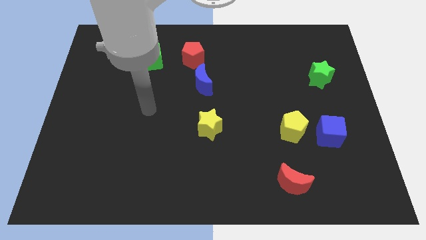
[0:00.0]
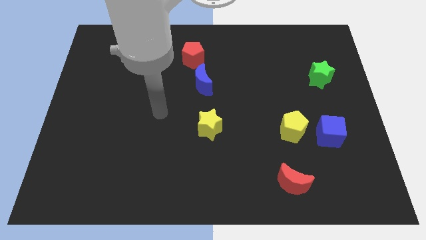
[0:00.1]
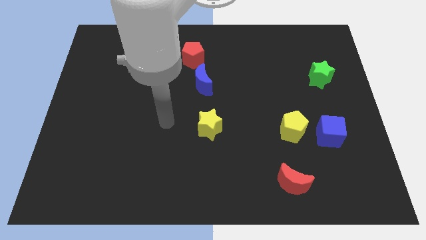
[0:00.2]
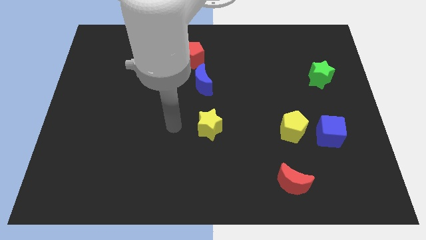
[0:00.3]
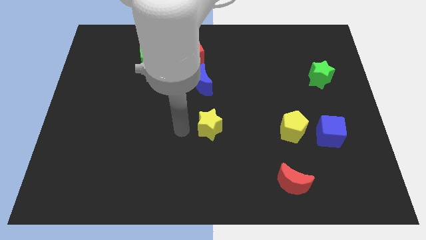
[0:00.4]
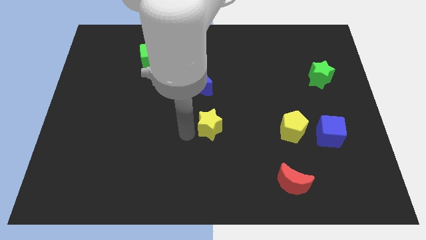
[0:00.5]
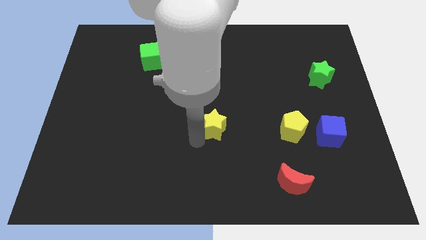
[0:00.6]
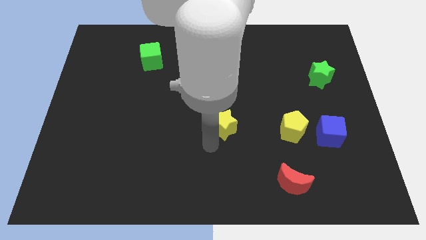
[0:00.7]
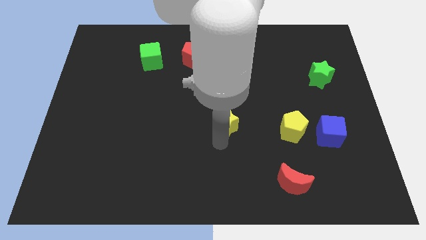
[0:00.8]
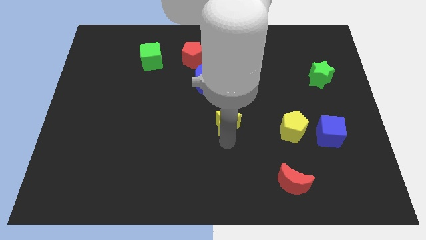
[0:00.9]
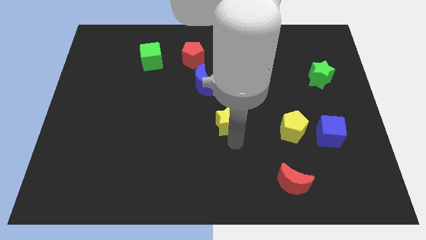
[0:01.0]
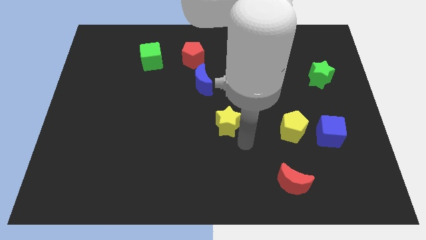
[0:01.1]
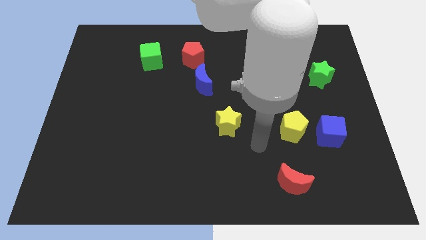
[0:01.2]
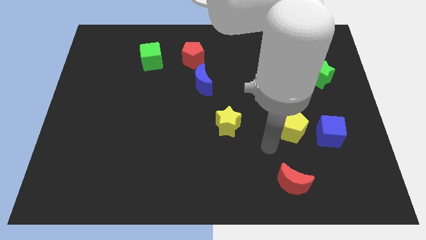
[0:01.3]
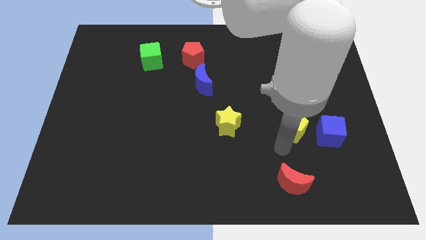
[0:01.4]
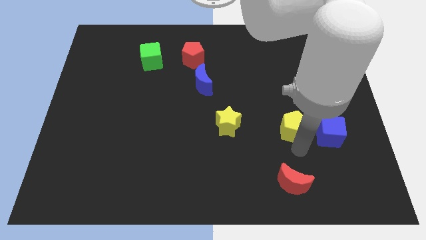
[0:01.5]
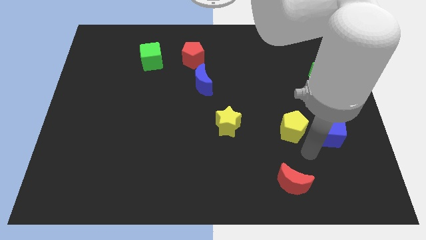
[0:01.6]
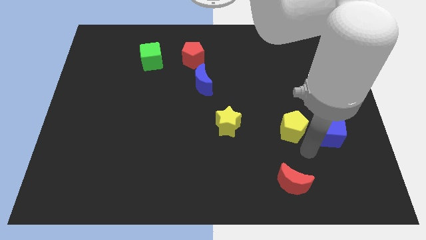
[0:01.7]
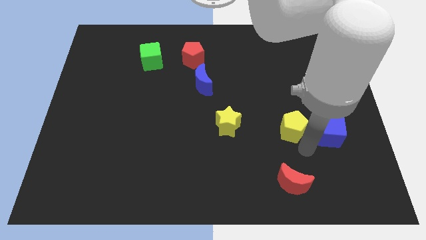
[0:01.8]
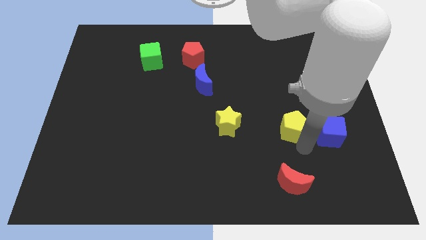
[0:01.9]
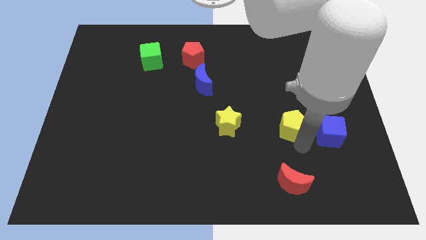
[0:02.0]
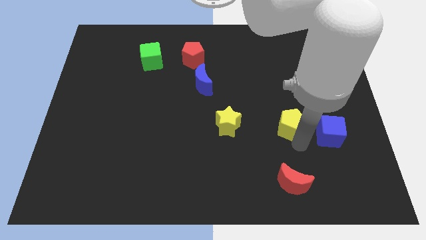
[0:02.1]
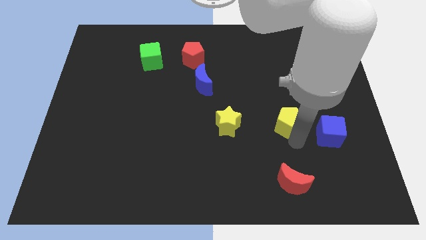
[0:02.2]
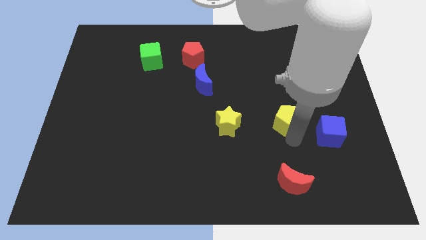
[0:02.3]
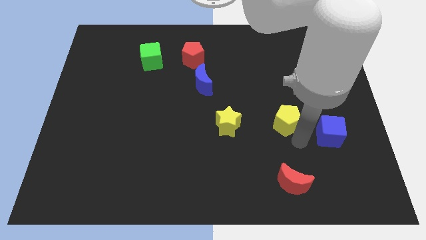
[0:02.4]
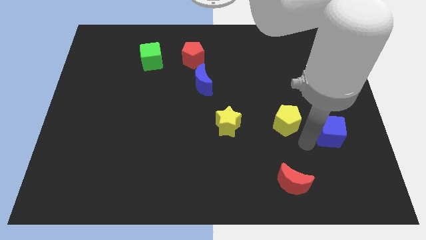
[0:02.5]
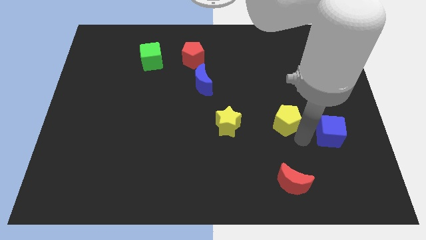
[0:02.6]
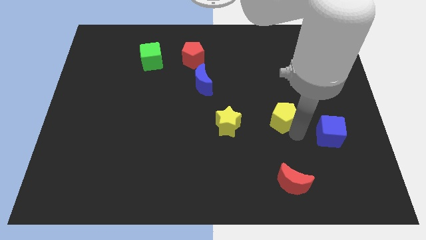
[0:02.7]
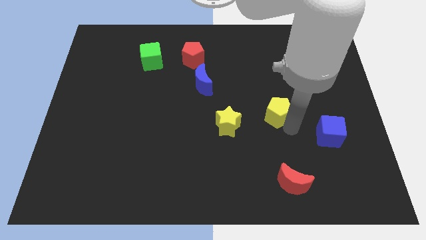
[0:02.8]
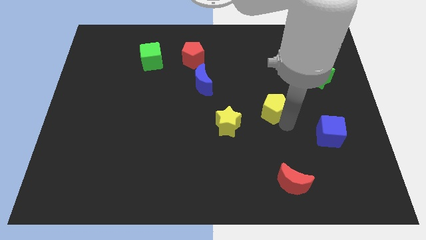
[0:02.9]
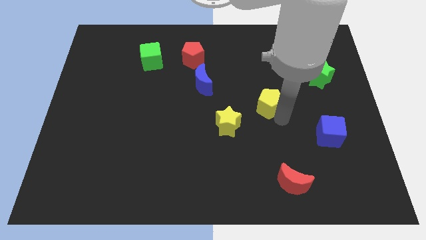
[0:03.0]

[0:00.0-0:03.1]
slide the yellow pentagon diagonally upwards and left slightly

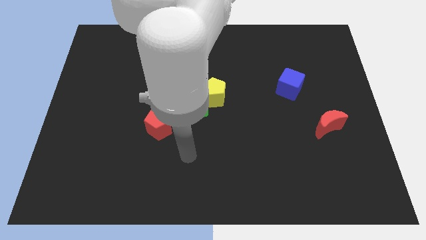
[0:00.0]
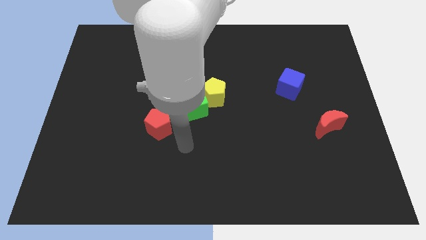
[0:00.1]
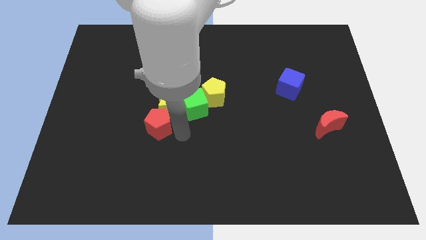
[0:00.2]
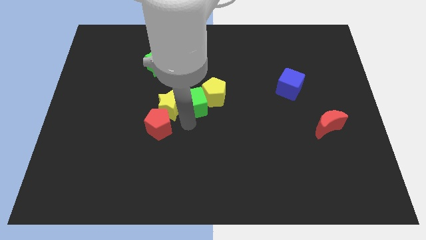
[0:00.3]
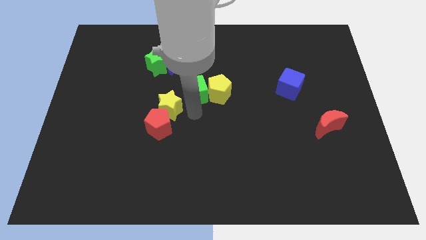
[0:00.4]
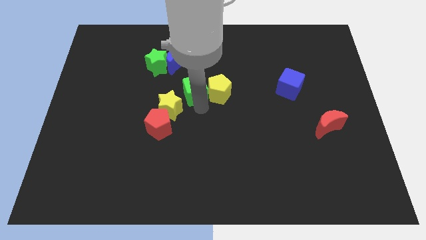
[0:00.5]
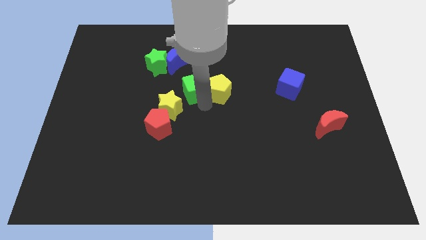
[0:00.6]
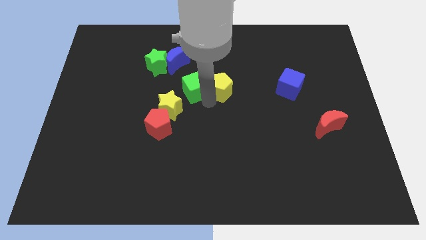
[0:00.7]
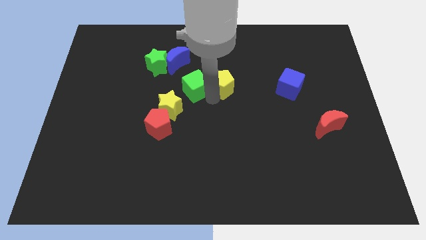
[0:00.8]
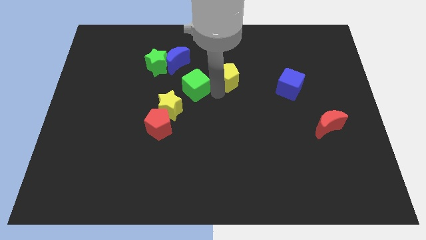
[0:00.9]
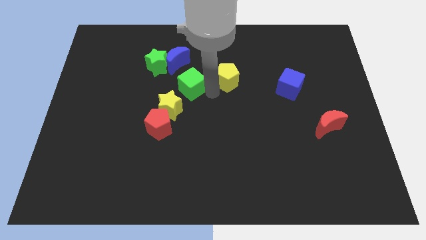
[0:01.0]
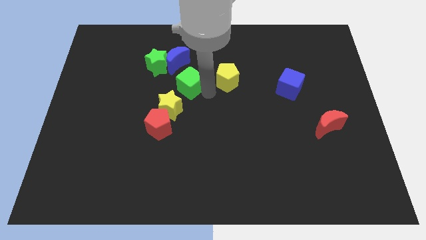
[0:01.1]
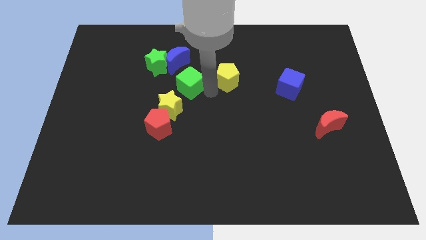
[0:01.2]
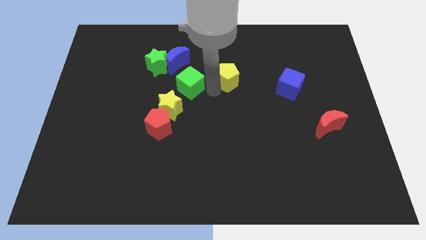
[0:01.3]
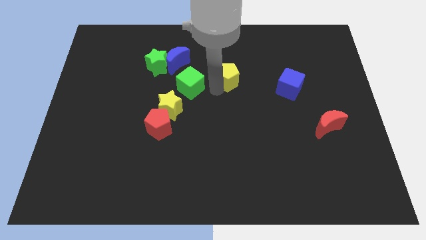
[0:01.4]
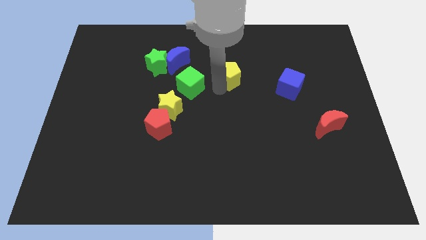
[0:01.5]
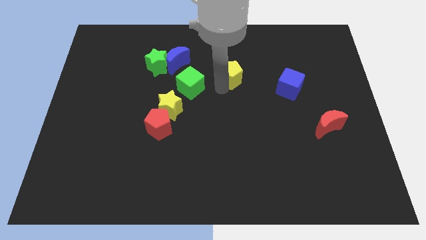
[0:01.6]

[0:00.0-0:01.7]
slightly push the yellow pentagon upwards and to the right

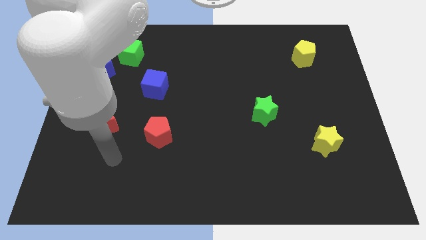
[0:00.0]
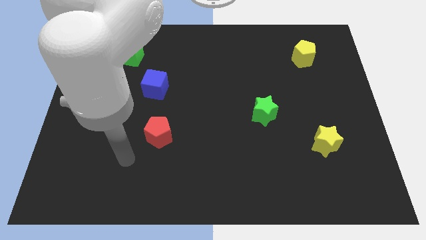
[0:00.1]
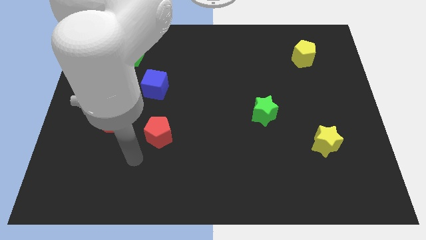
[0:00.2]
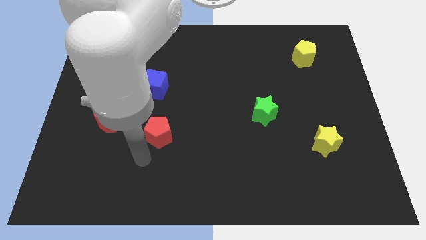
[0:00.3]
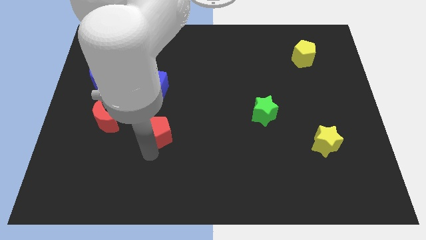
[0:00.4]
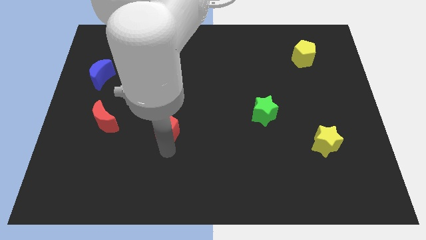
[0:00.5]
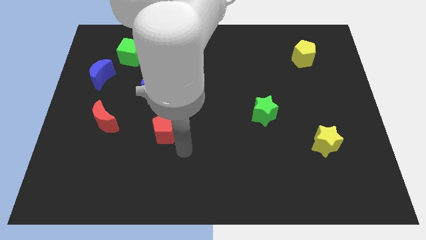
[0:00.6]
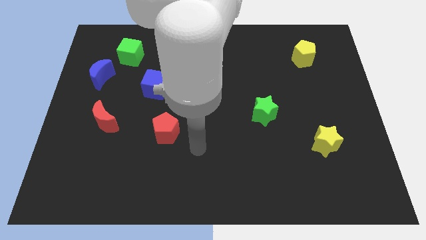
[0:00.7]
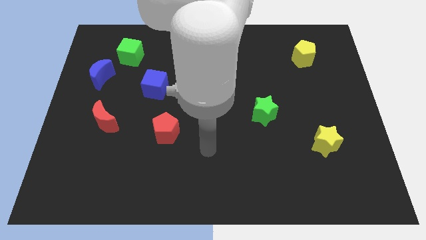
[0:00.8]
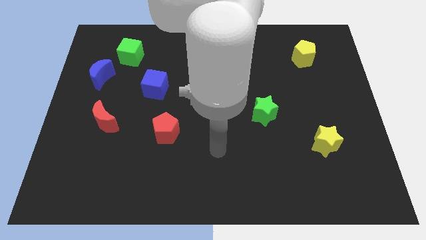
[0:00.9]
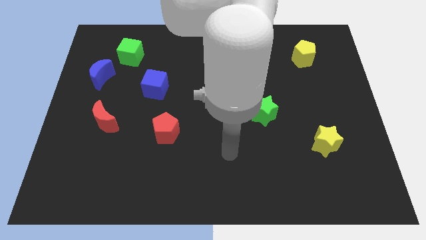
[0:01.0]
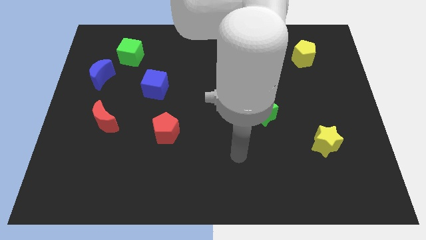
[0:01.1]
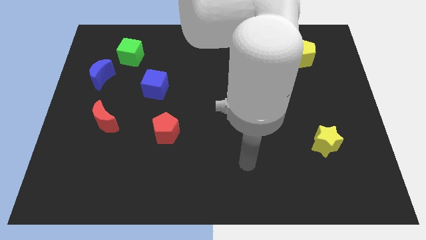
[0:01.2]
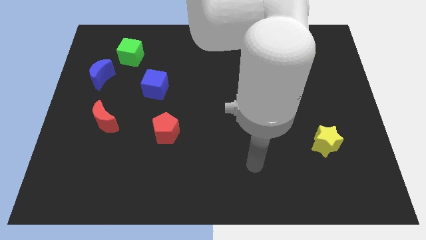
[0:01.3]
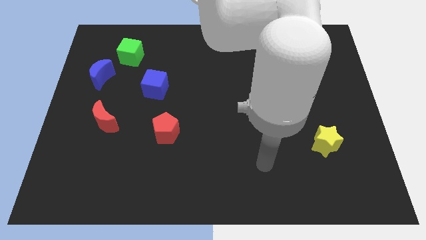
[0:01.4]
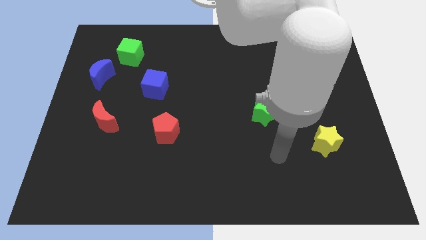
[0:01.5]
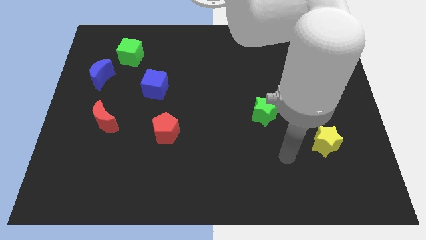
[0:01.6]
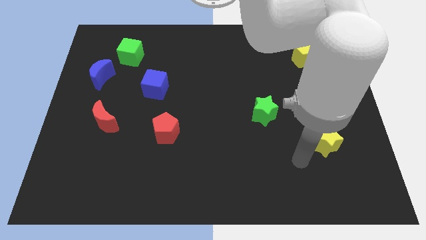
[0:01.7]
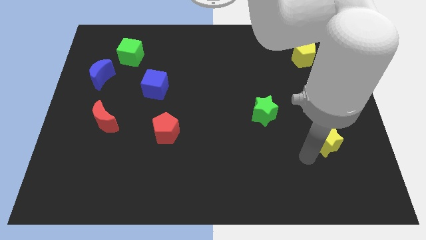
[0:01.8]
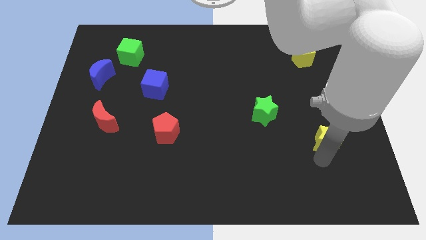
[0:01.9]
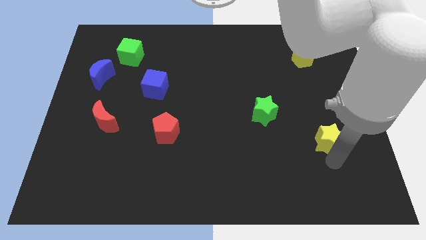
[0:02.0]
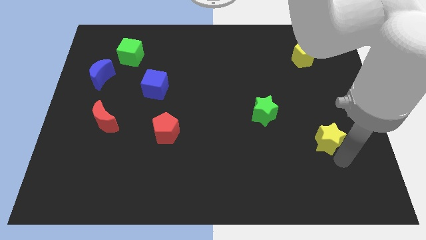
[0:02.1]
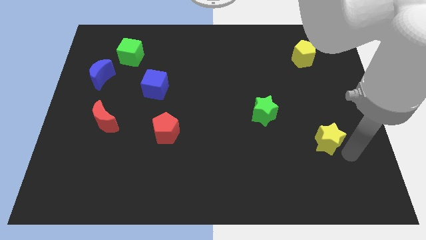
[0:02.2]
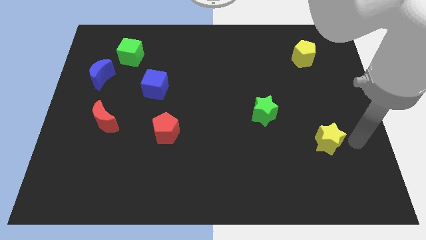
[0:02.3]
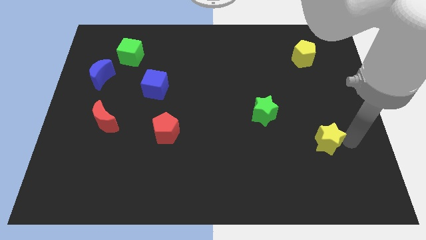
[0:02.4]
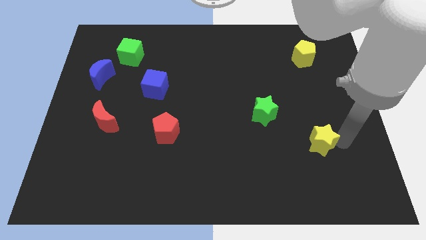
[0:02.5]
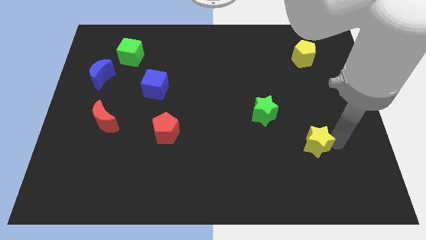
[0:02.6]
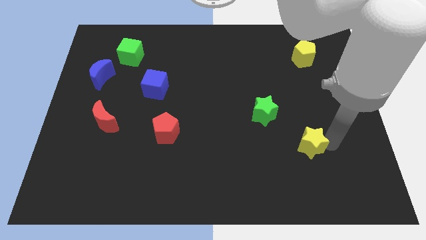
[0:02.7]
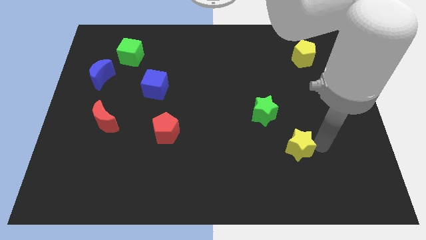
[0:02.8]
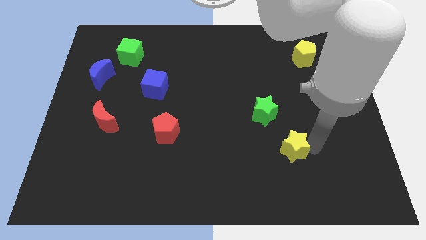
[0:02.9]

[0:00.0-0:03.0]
slide the yellow star left a bit
